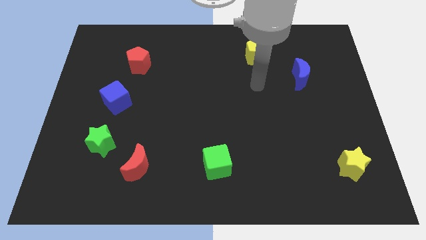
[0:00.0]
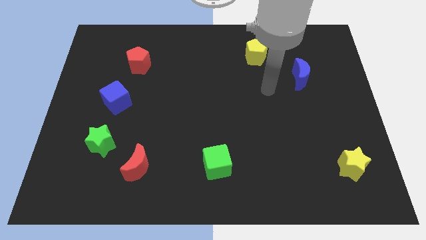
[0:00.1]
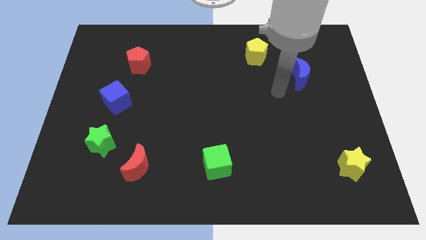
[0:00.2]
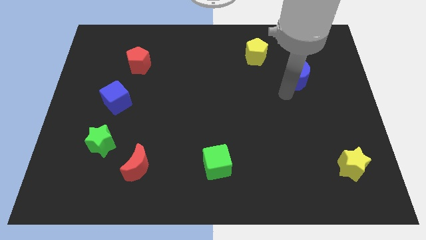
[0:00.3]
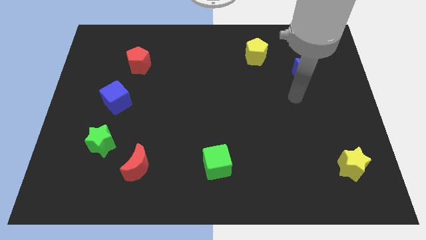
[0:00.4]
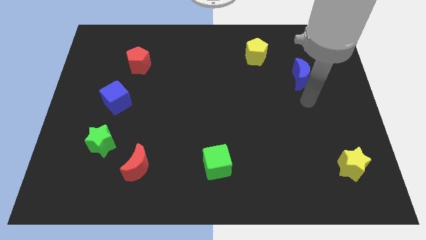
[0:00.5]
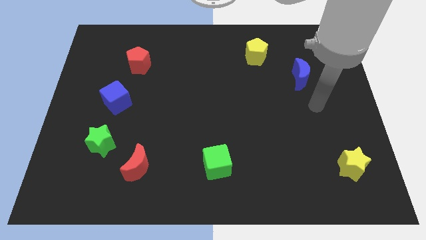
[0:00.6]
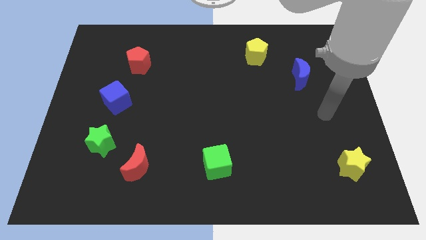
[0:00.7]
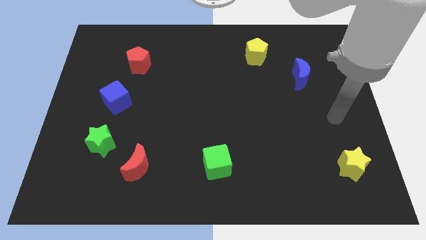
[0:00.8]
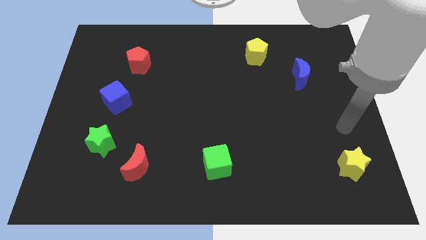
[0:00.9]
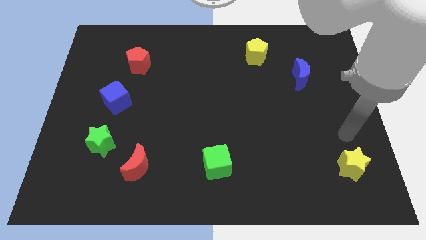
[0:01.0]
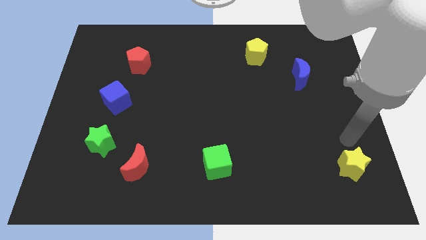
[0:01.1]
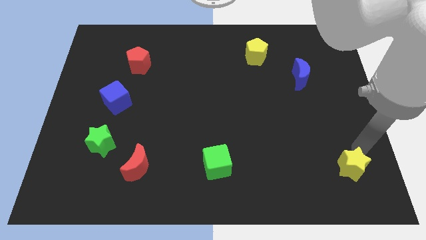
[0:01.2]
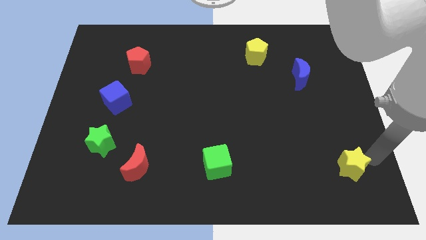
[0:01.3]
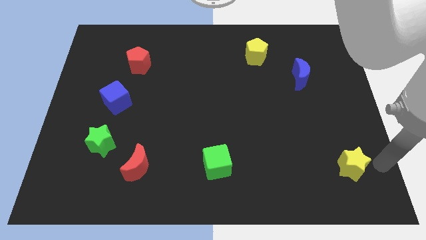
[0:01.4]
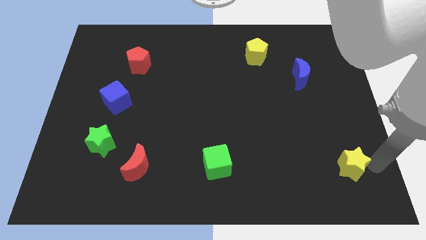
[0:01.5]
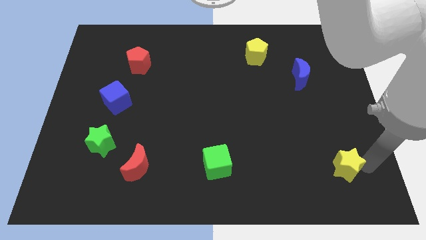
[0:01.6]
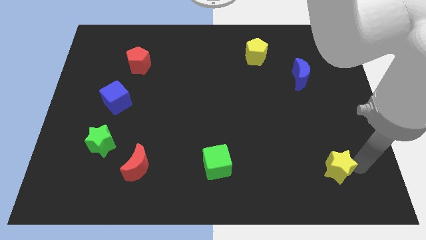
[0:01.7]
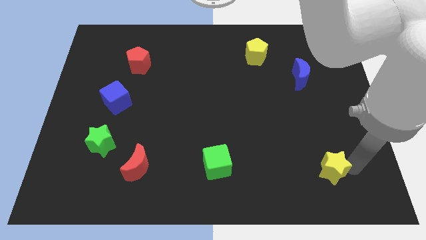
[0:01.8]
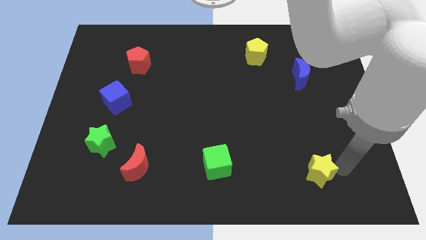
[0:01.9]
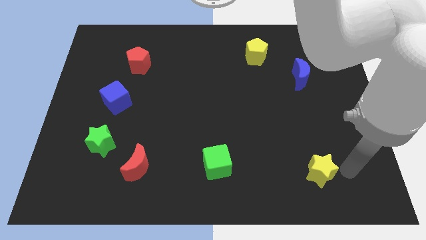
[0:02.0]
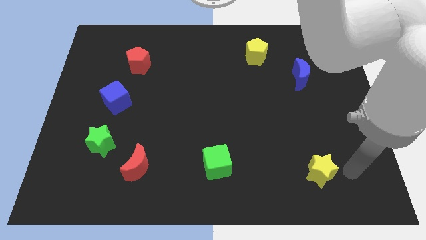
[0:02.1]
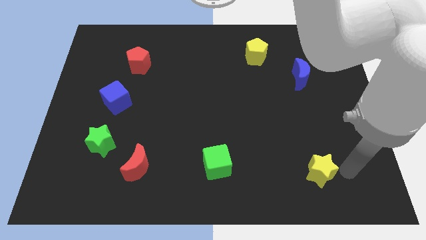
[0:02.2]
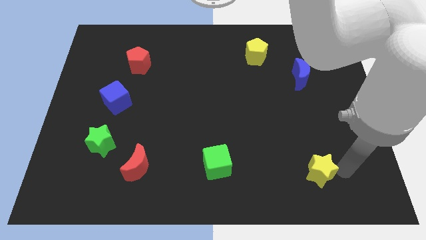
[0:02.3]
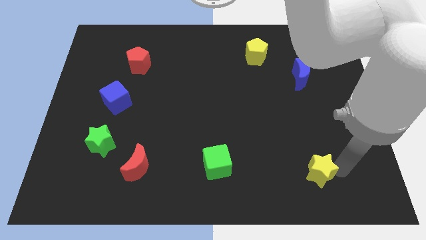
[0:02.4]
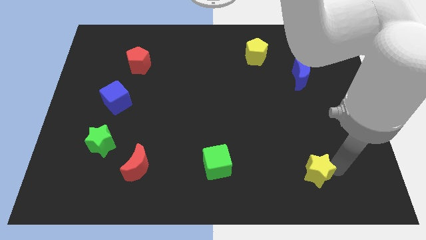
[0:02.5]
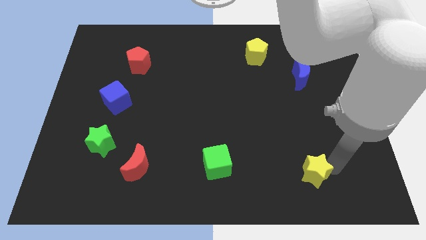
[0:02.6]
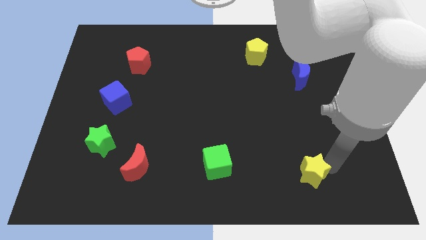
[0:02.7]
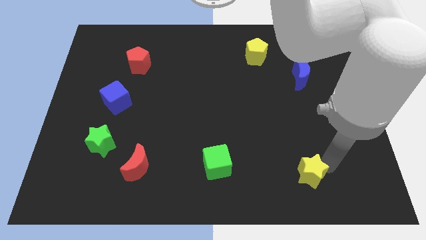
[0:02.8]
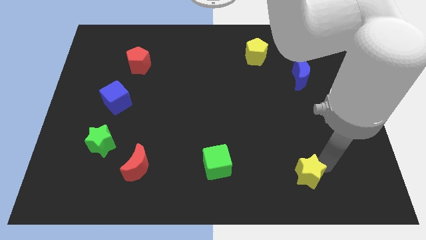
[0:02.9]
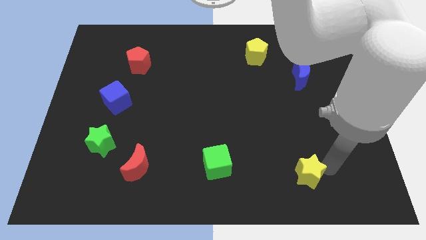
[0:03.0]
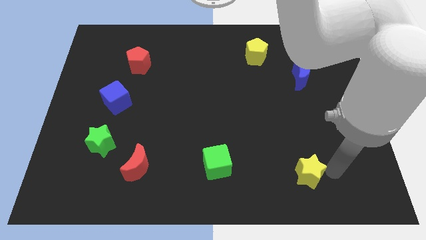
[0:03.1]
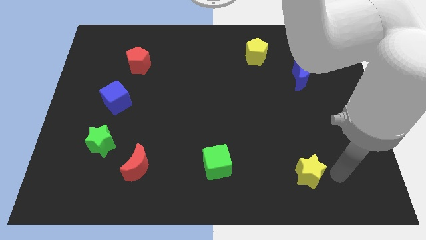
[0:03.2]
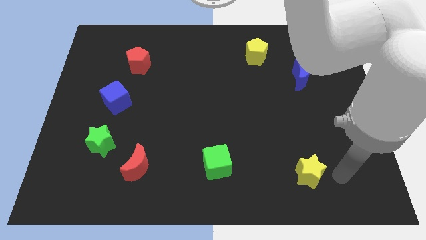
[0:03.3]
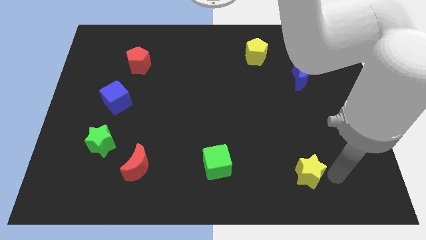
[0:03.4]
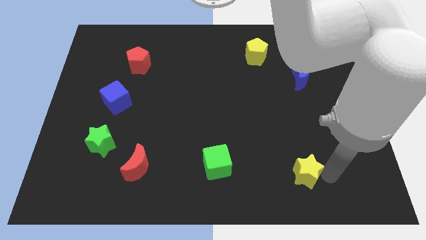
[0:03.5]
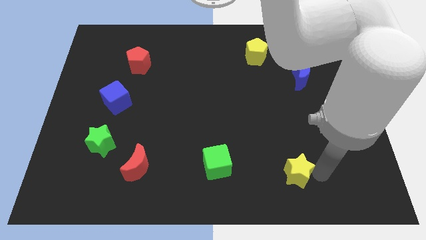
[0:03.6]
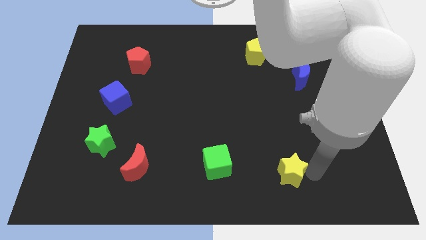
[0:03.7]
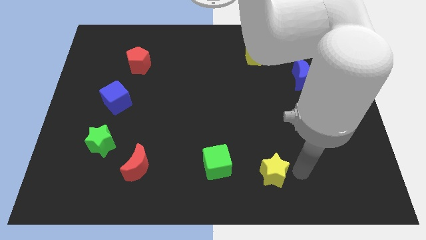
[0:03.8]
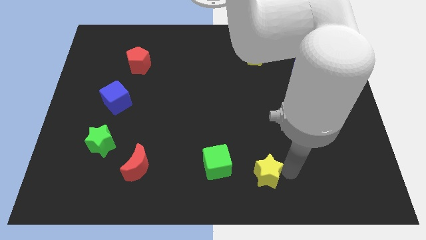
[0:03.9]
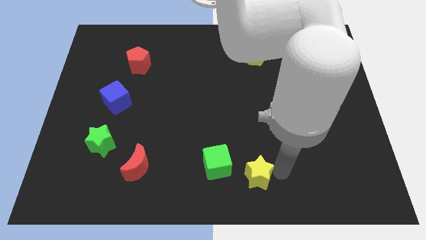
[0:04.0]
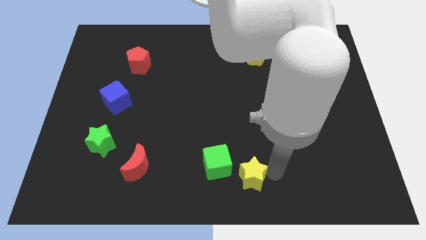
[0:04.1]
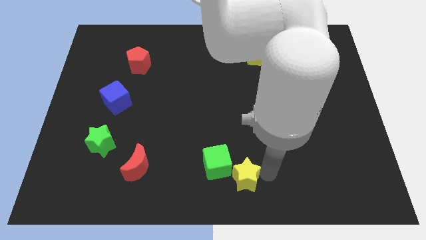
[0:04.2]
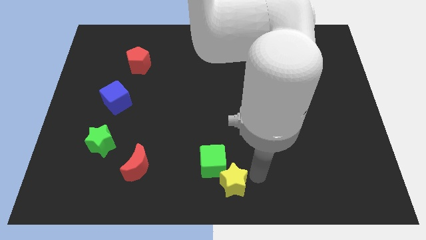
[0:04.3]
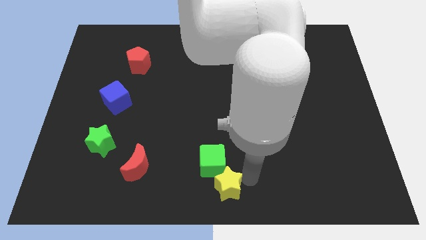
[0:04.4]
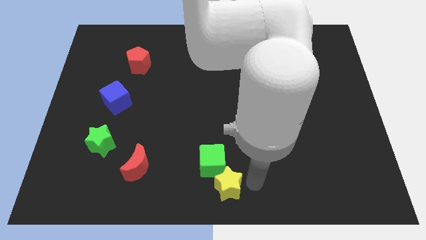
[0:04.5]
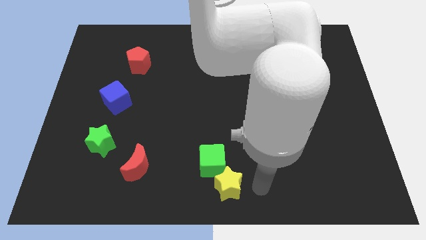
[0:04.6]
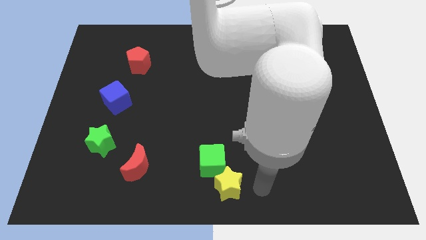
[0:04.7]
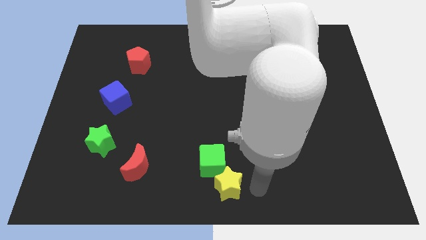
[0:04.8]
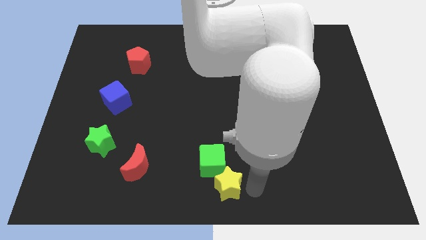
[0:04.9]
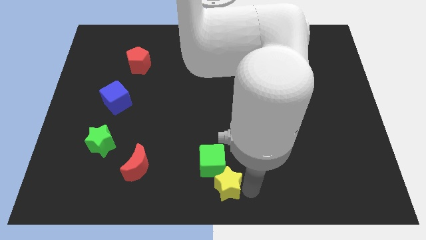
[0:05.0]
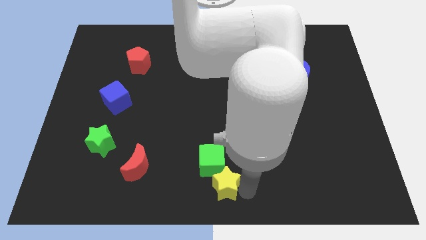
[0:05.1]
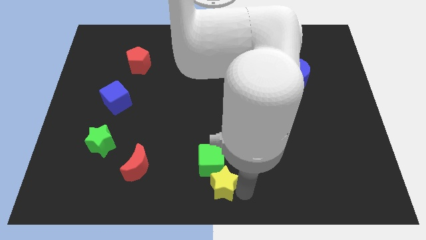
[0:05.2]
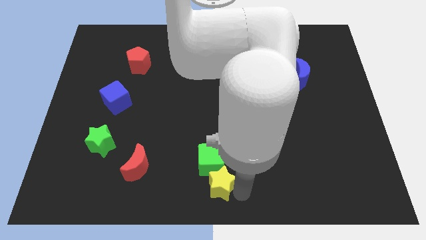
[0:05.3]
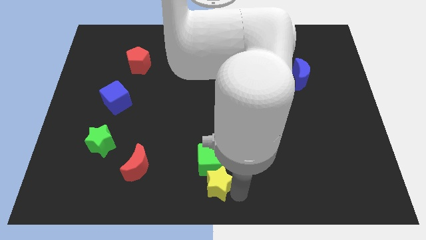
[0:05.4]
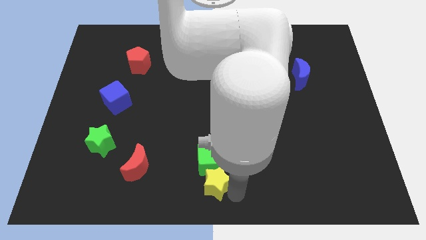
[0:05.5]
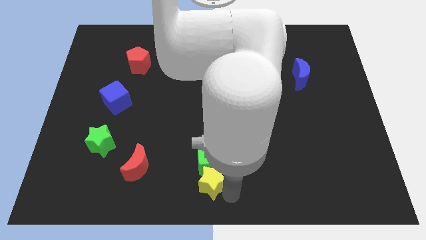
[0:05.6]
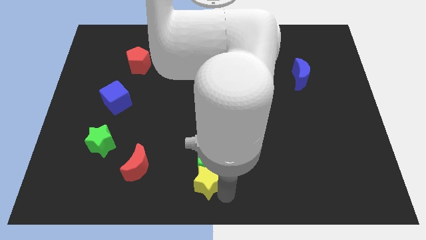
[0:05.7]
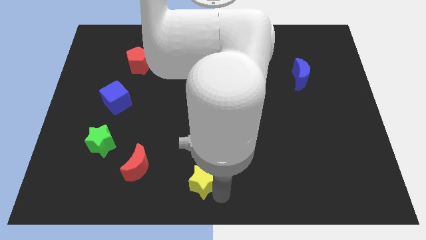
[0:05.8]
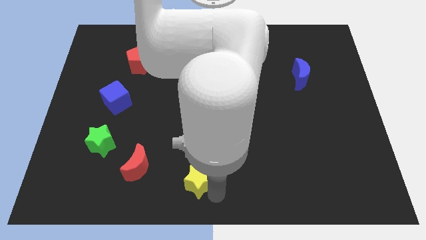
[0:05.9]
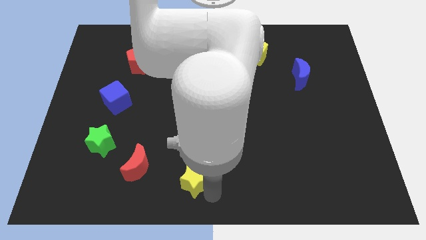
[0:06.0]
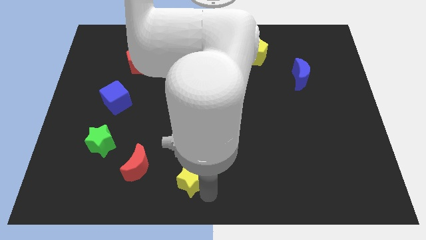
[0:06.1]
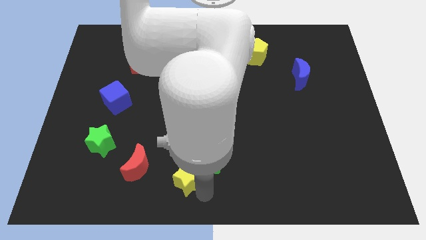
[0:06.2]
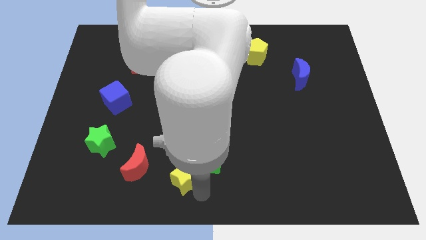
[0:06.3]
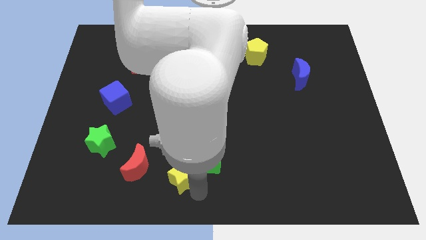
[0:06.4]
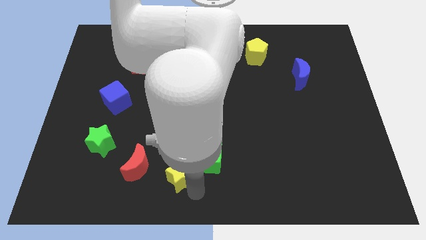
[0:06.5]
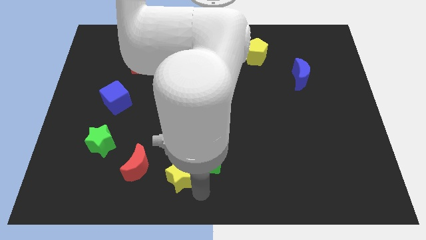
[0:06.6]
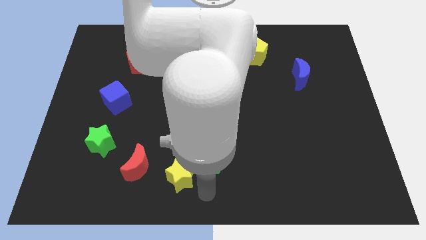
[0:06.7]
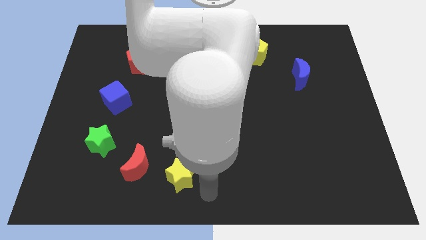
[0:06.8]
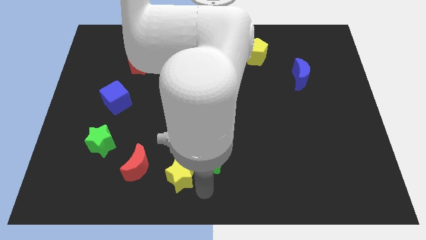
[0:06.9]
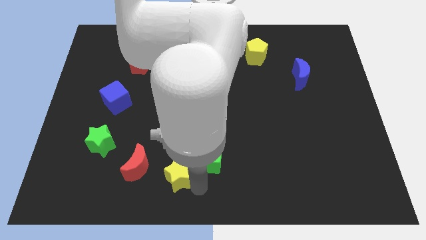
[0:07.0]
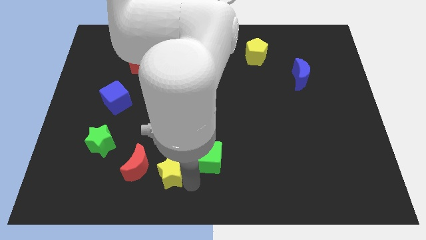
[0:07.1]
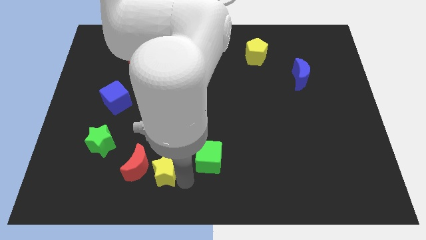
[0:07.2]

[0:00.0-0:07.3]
move the yellow star next to the red moon
